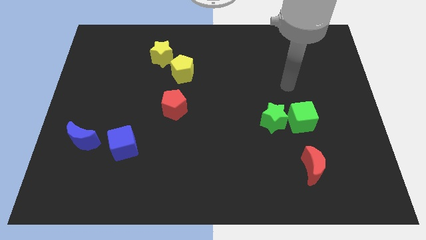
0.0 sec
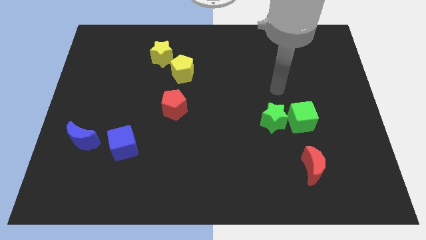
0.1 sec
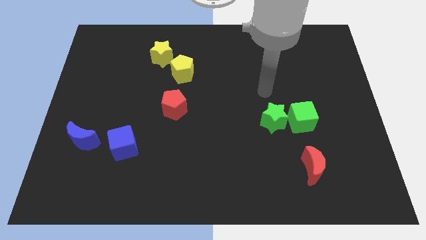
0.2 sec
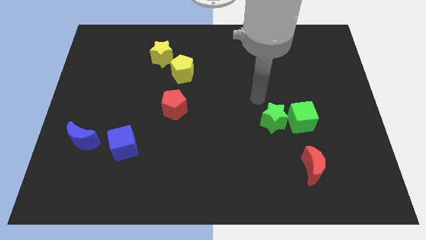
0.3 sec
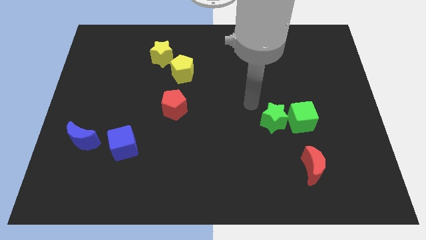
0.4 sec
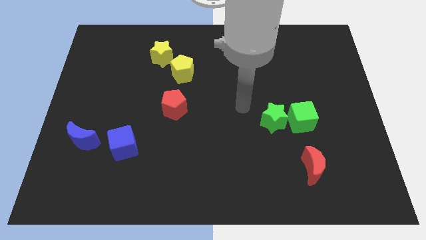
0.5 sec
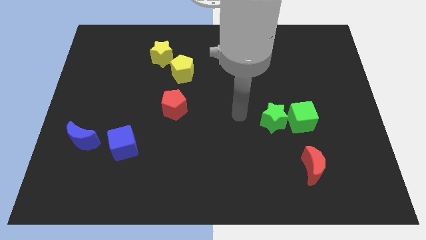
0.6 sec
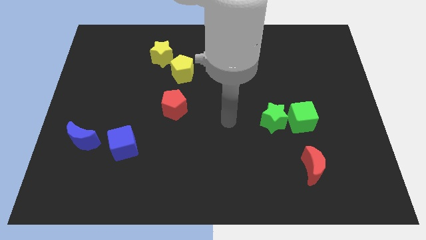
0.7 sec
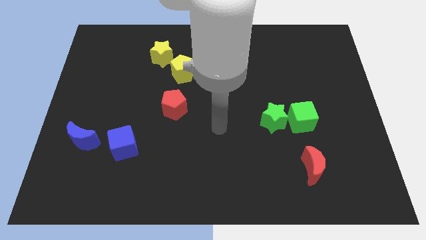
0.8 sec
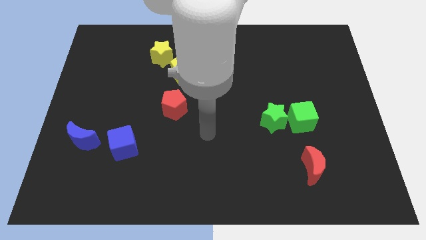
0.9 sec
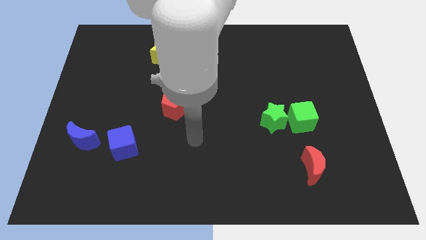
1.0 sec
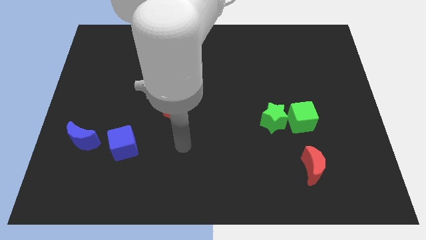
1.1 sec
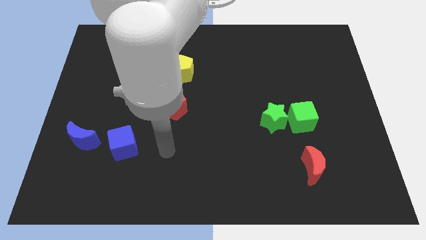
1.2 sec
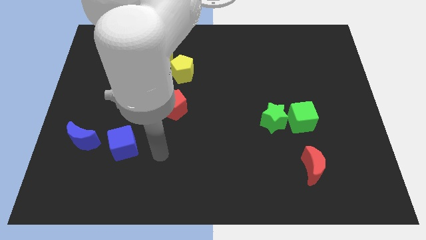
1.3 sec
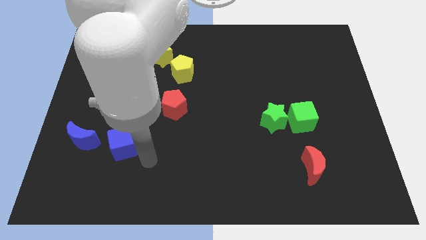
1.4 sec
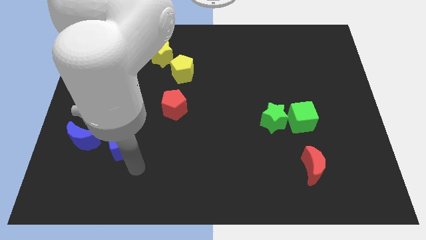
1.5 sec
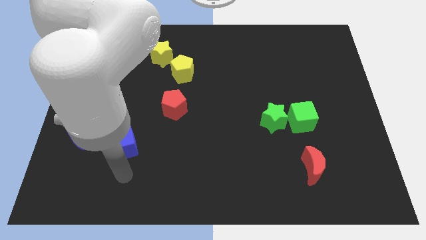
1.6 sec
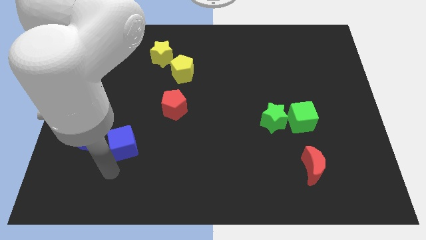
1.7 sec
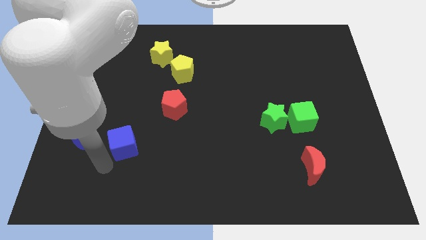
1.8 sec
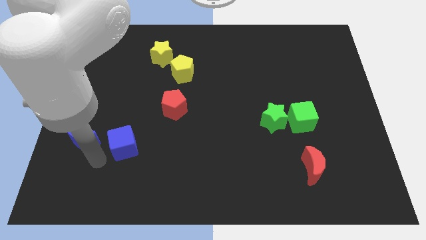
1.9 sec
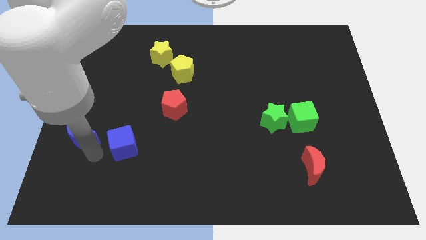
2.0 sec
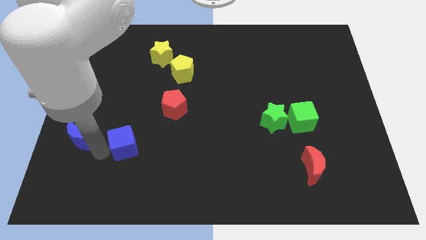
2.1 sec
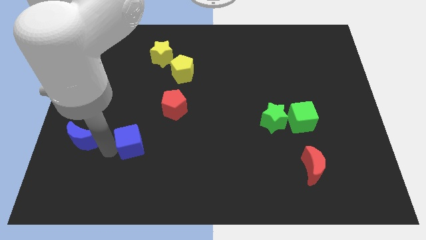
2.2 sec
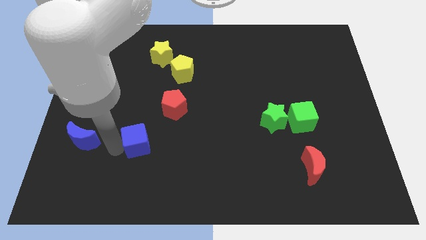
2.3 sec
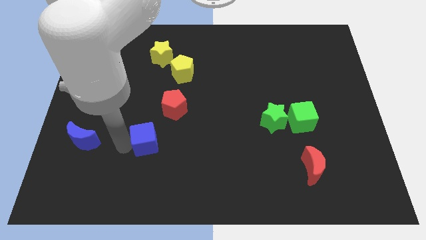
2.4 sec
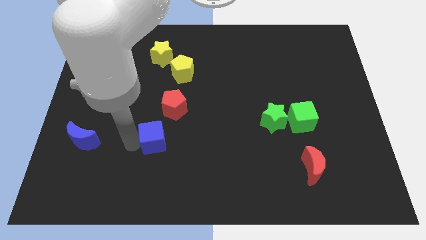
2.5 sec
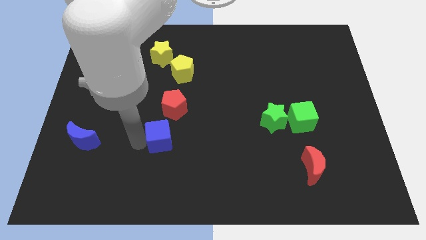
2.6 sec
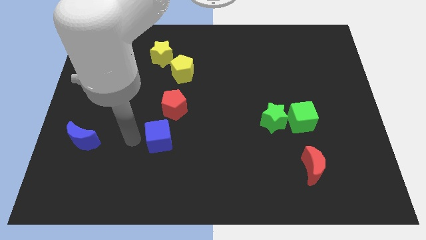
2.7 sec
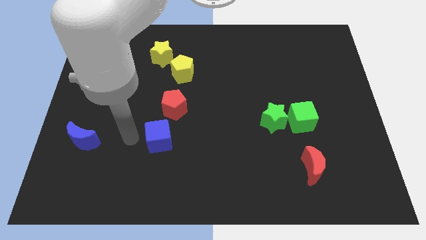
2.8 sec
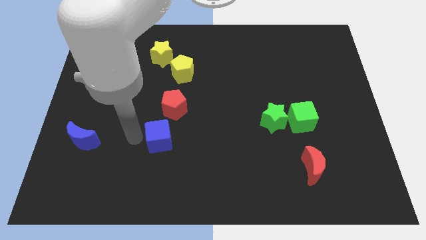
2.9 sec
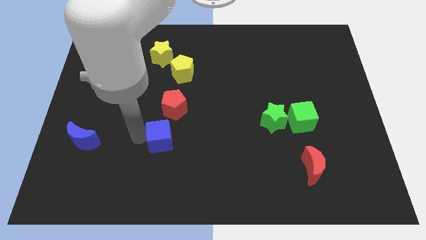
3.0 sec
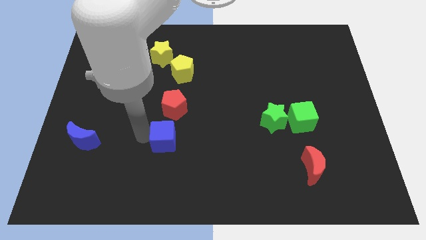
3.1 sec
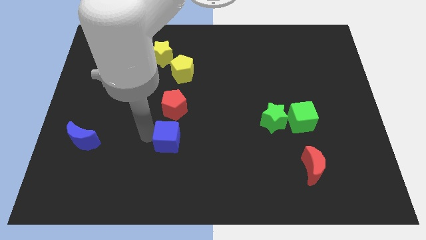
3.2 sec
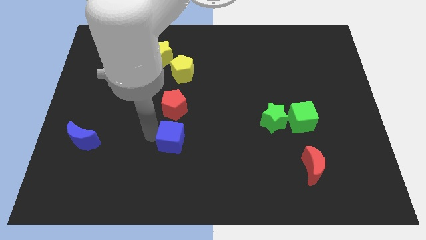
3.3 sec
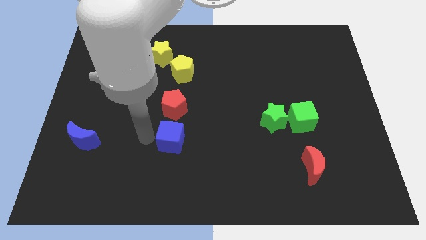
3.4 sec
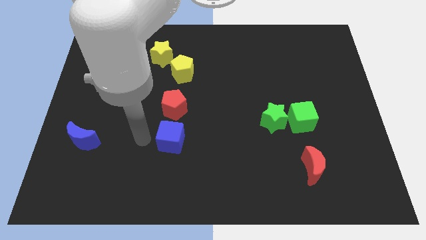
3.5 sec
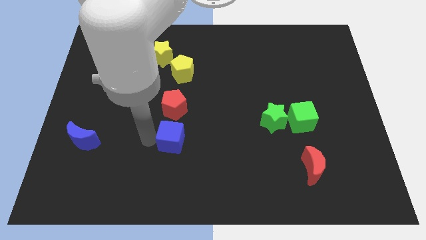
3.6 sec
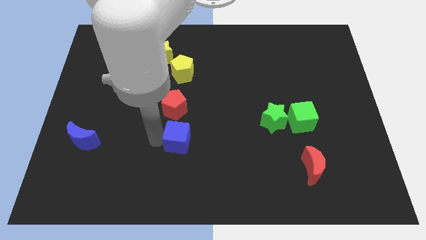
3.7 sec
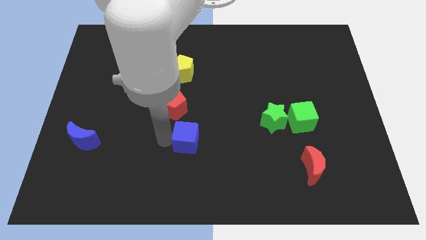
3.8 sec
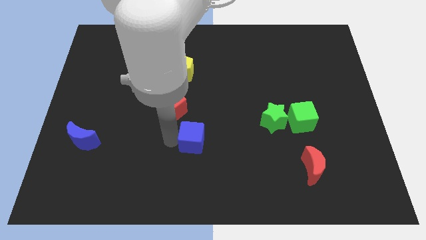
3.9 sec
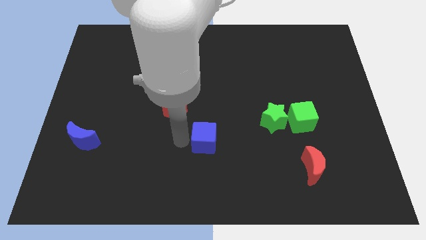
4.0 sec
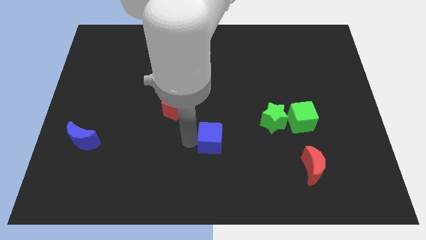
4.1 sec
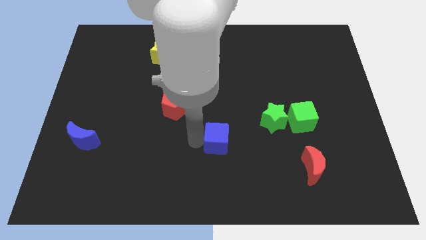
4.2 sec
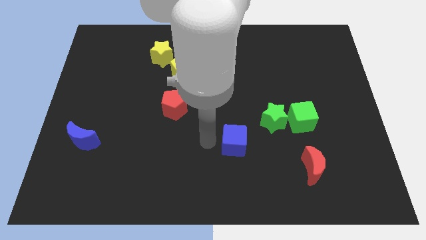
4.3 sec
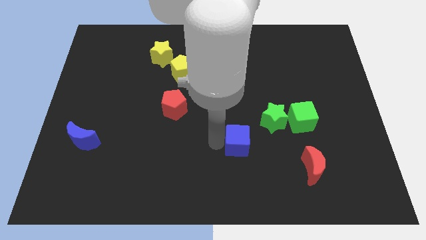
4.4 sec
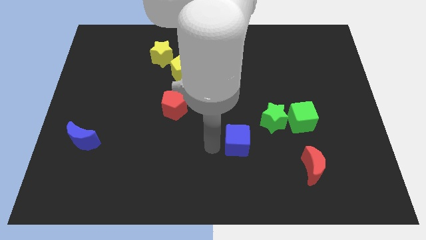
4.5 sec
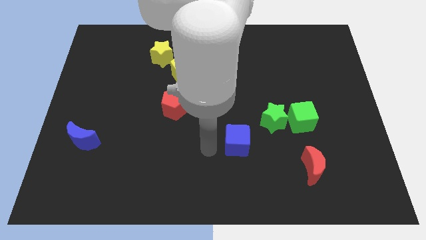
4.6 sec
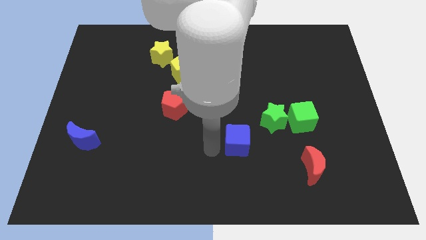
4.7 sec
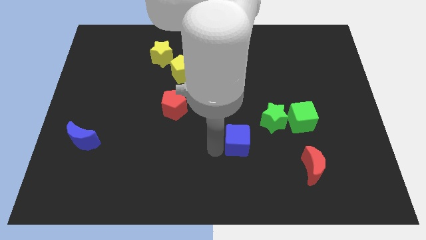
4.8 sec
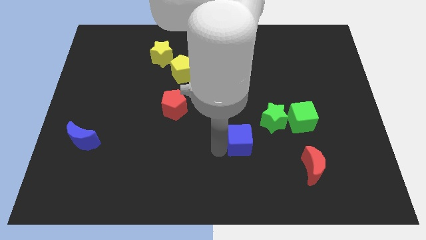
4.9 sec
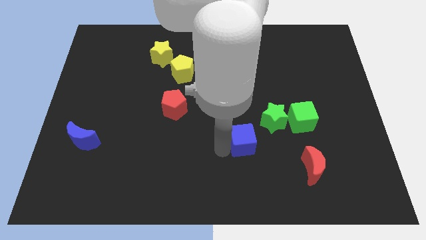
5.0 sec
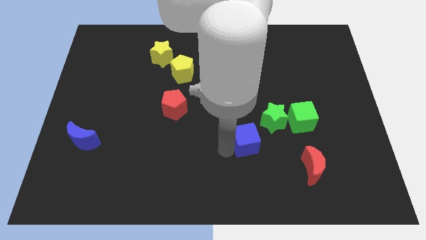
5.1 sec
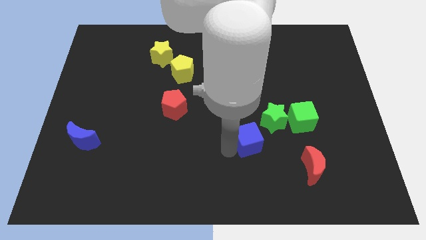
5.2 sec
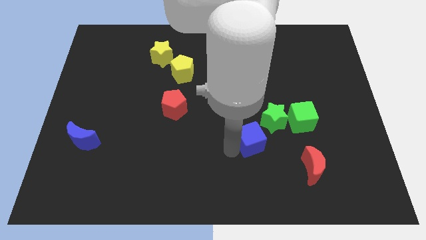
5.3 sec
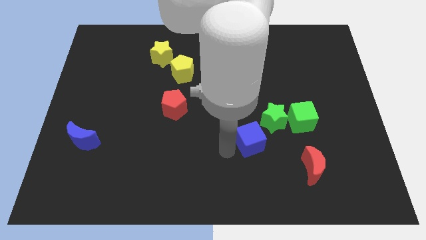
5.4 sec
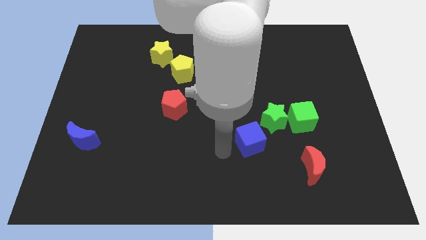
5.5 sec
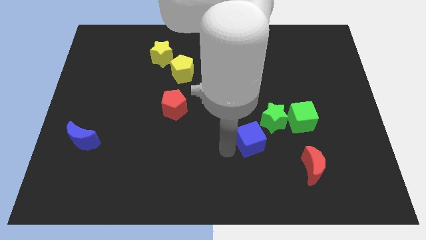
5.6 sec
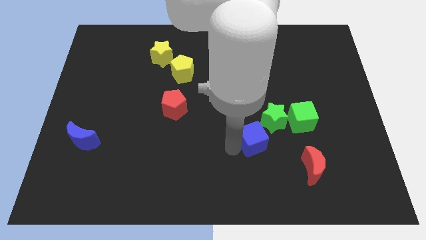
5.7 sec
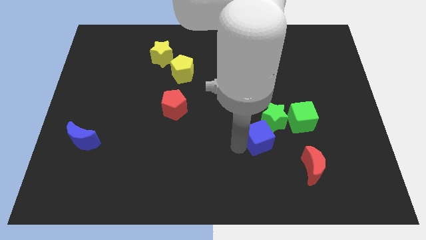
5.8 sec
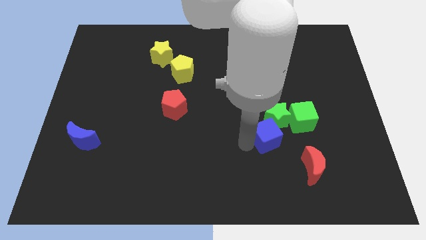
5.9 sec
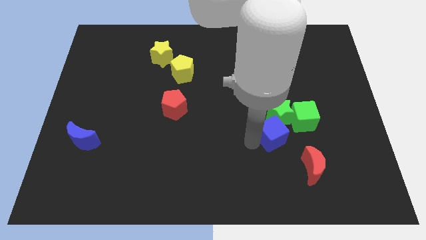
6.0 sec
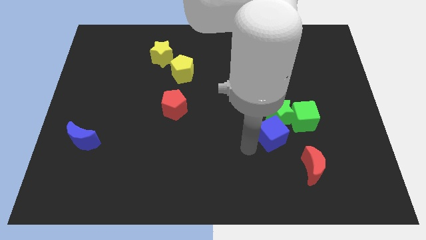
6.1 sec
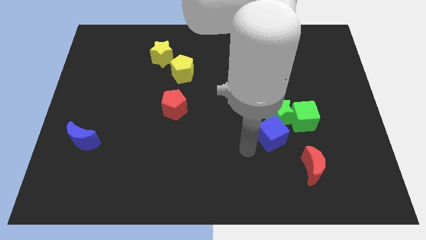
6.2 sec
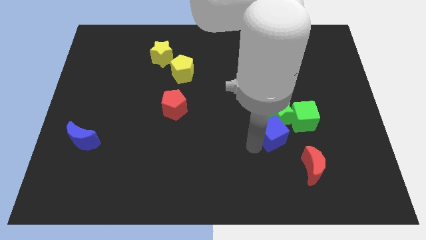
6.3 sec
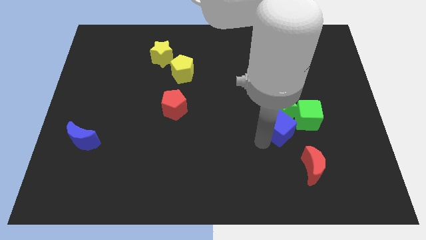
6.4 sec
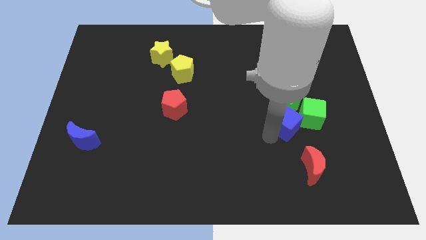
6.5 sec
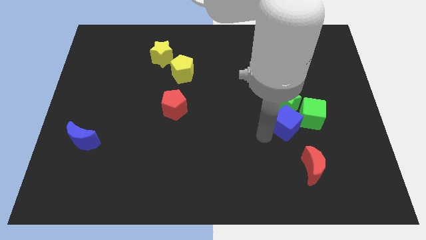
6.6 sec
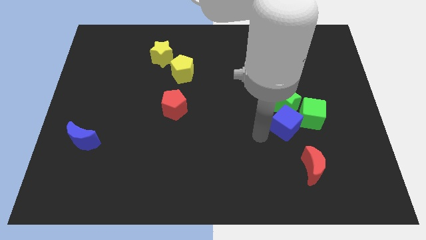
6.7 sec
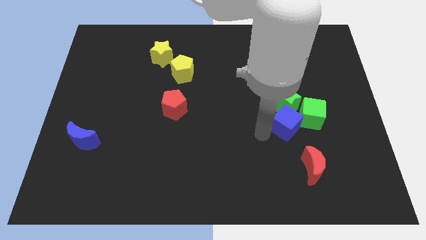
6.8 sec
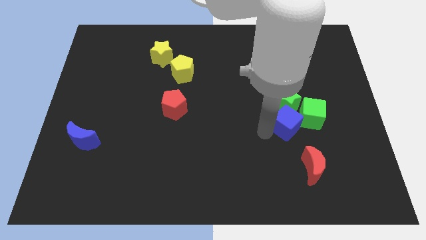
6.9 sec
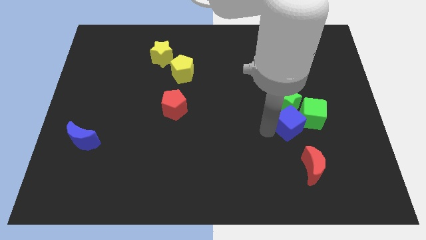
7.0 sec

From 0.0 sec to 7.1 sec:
move the blue cube towards the green cube

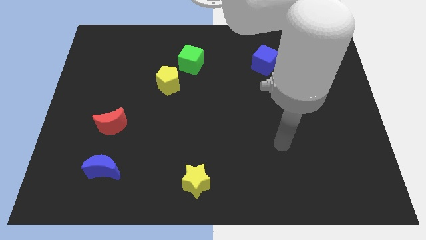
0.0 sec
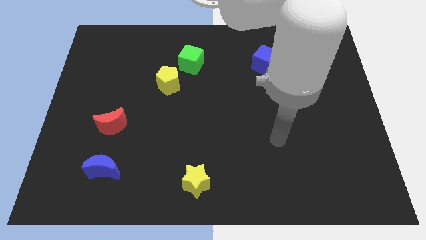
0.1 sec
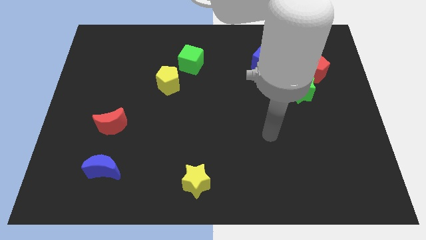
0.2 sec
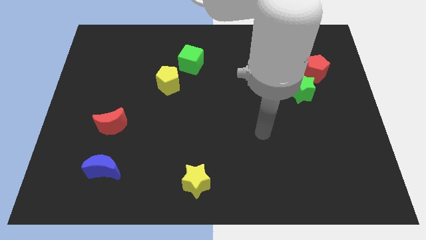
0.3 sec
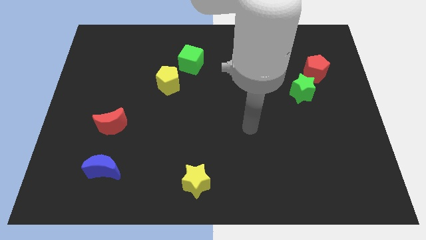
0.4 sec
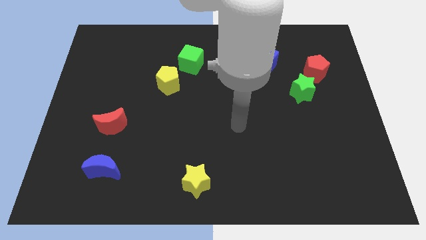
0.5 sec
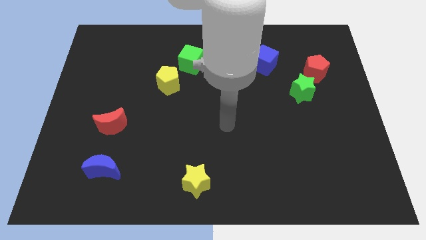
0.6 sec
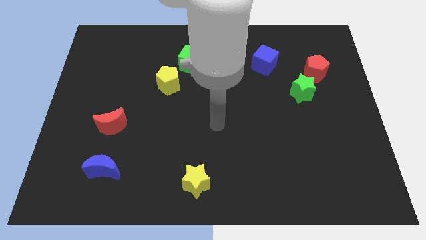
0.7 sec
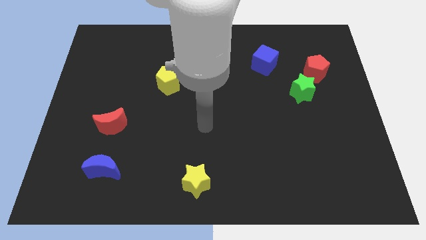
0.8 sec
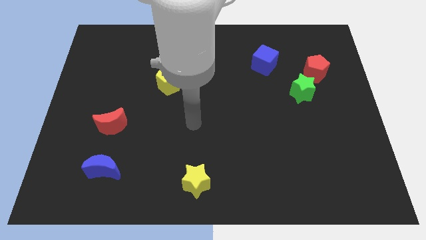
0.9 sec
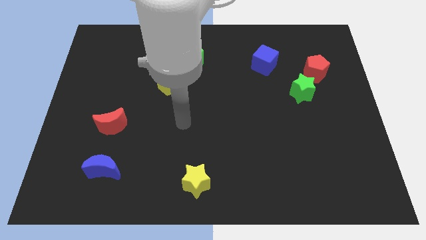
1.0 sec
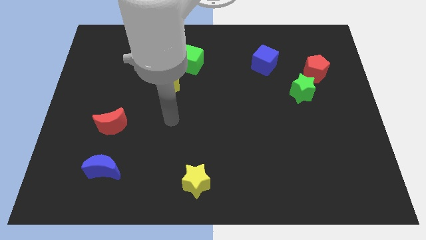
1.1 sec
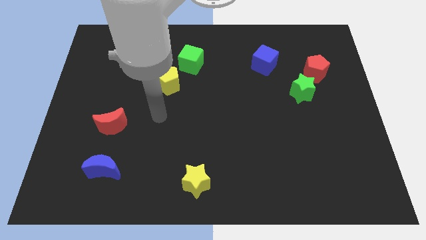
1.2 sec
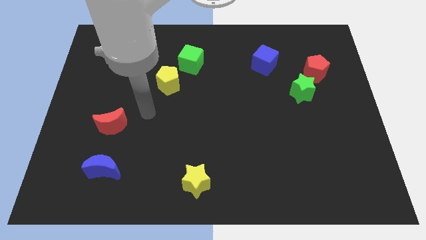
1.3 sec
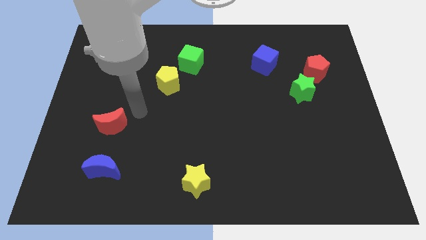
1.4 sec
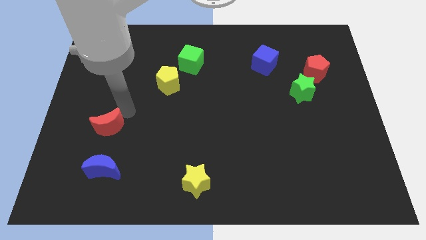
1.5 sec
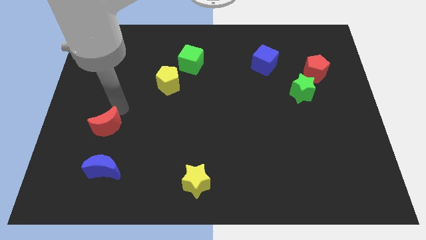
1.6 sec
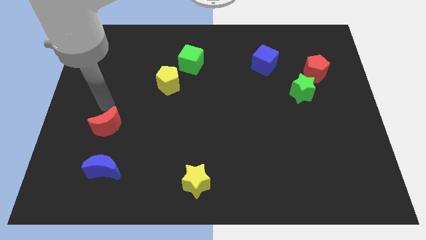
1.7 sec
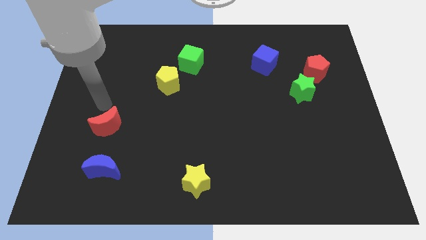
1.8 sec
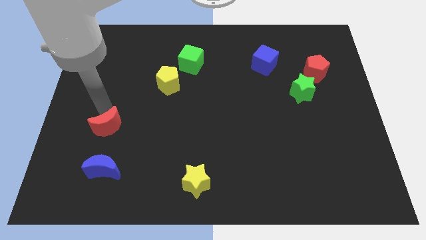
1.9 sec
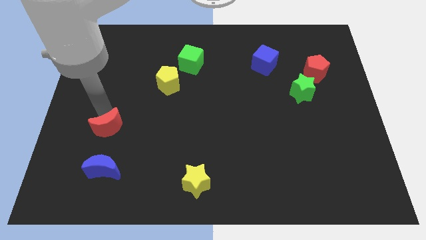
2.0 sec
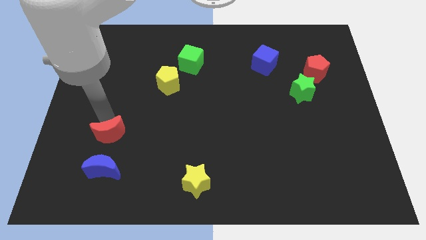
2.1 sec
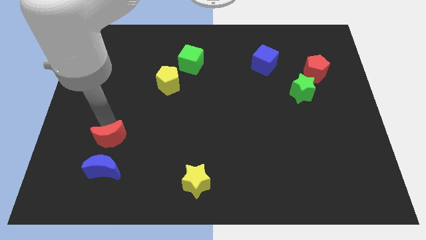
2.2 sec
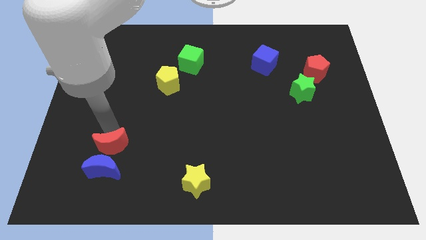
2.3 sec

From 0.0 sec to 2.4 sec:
slide the red moon close to the blue moon
